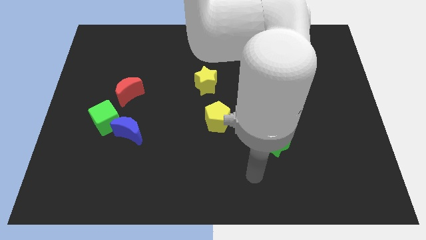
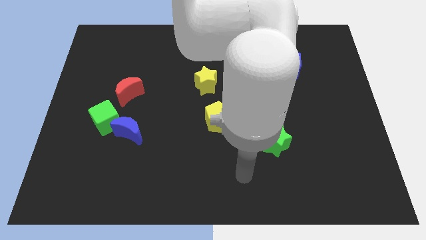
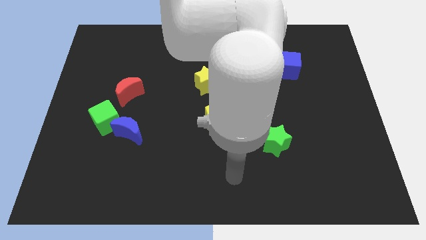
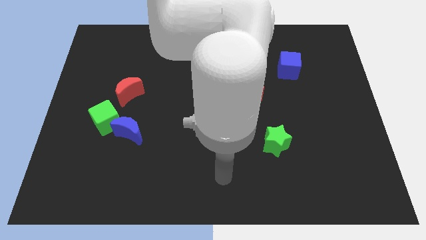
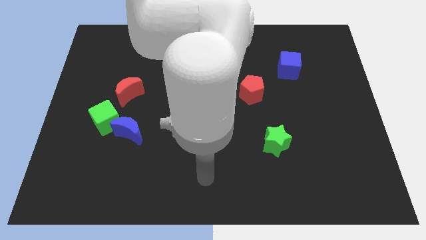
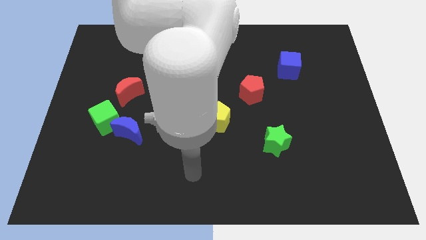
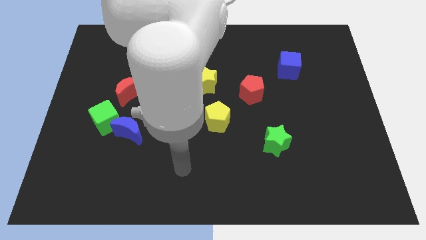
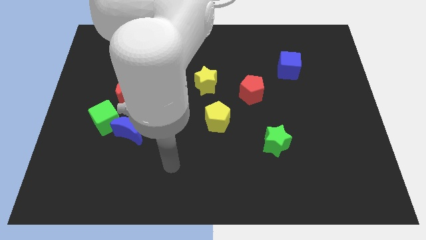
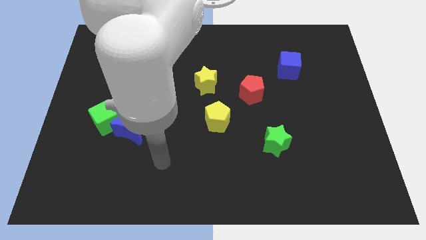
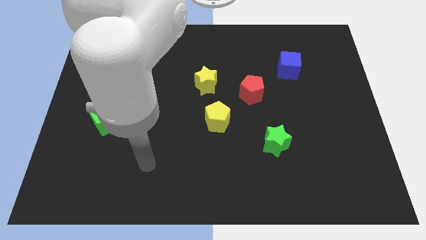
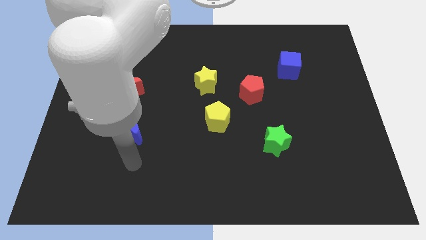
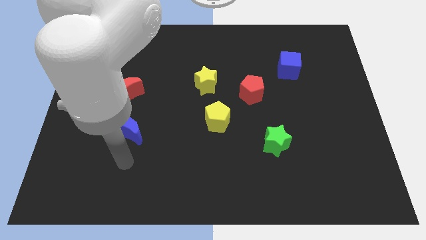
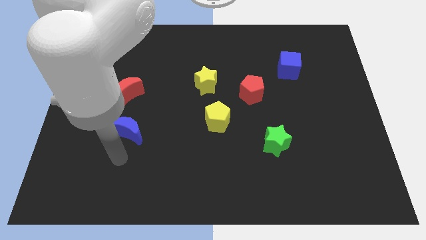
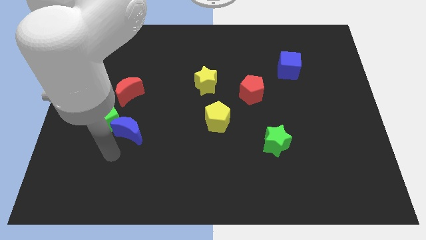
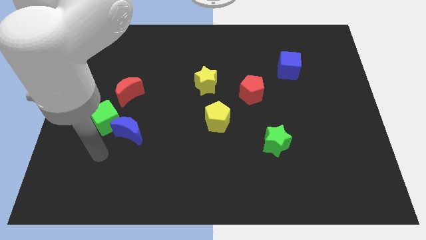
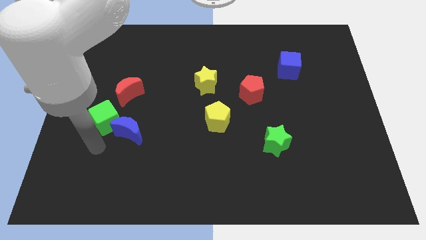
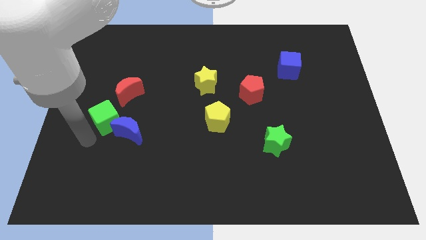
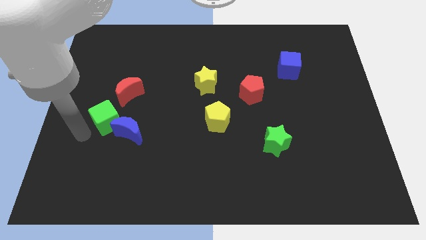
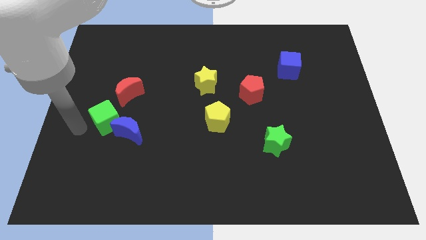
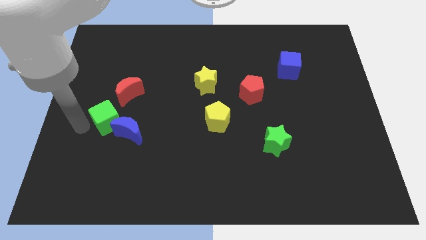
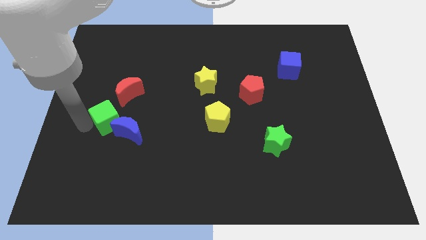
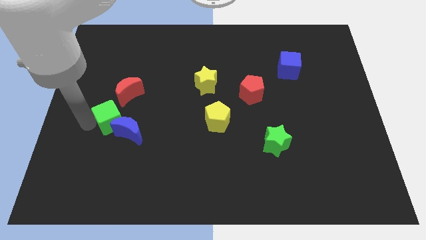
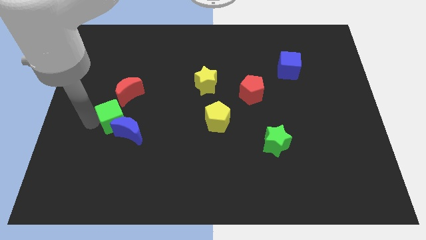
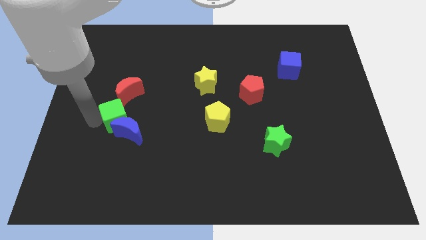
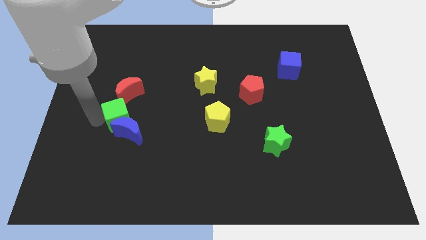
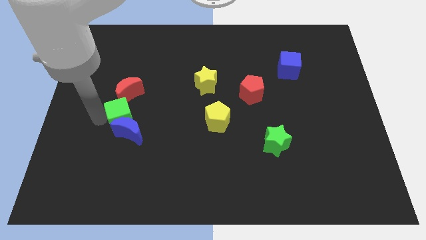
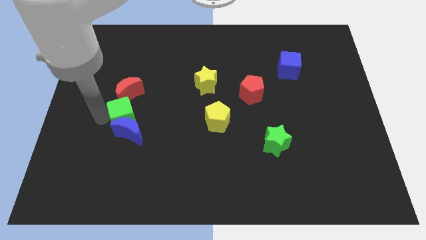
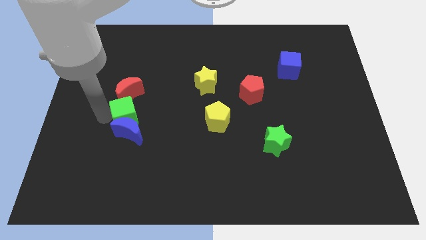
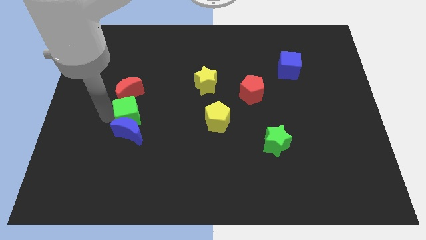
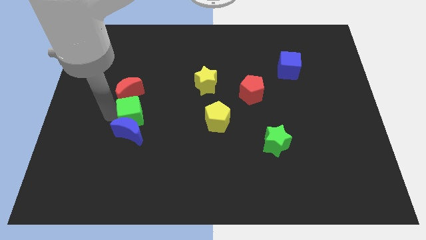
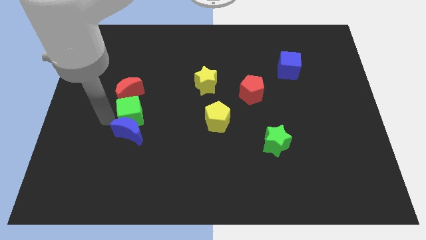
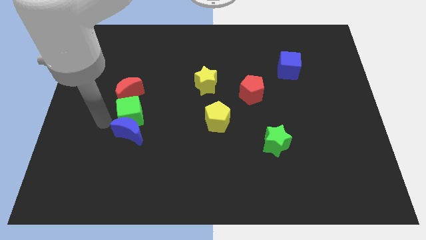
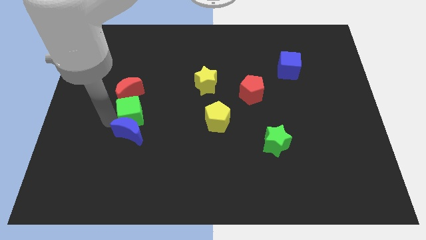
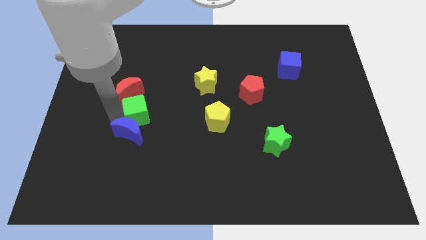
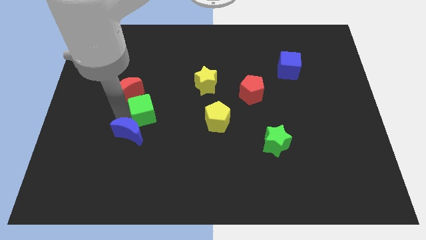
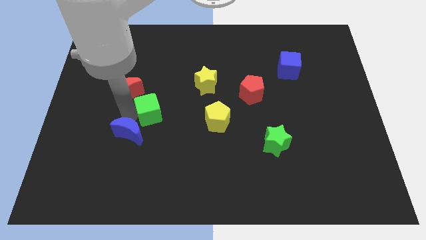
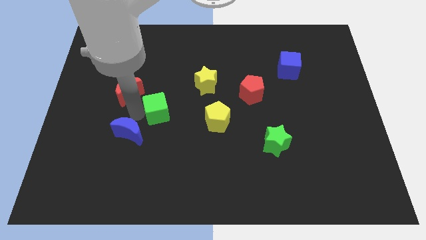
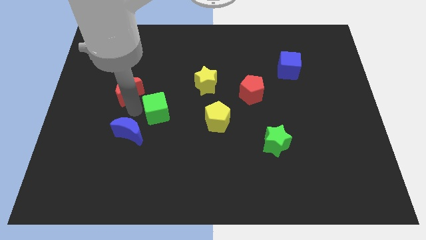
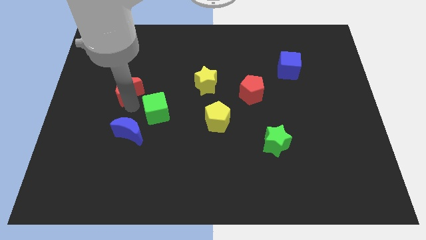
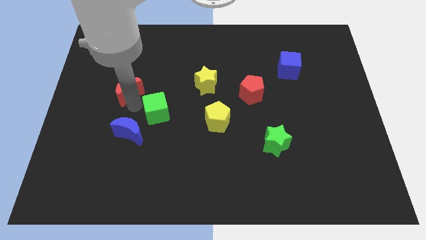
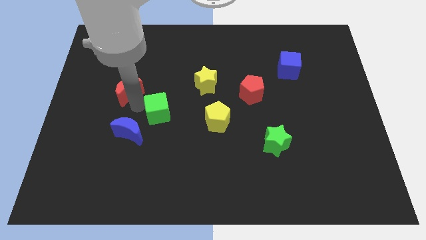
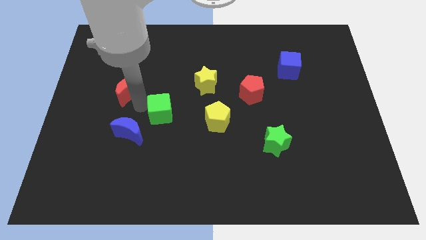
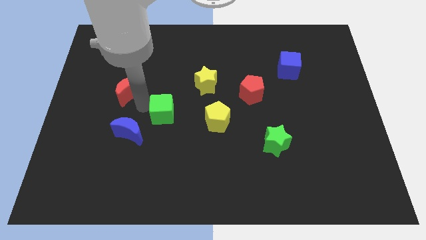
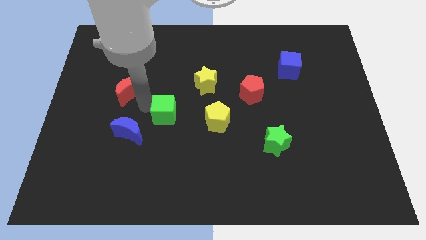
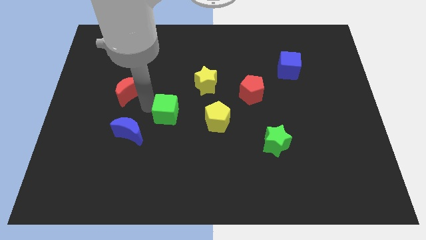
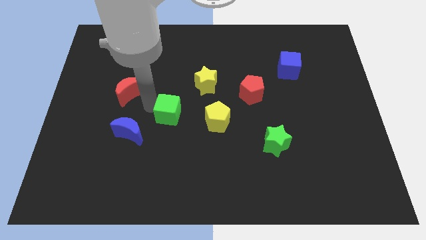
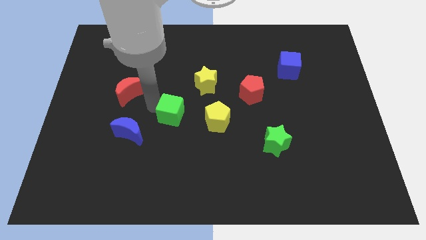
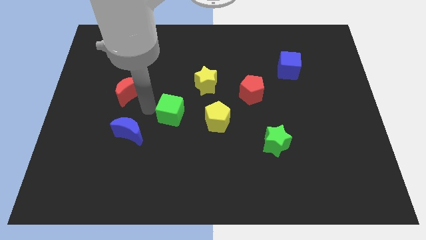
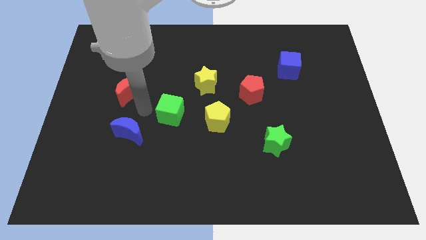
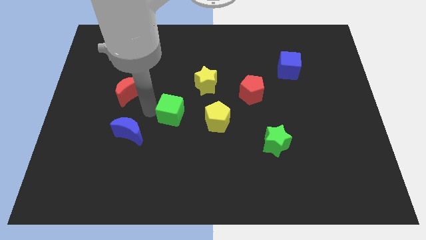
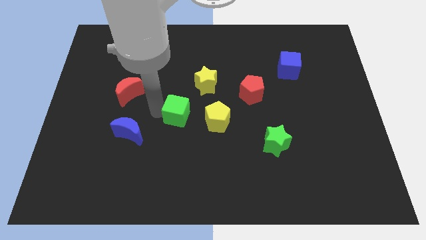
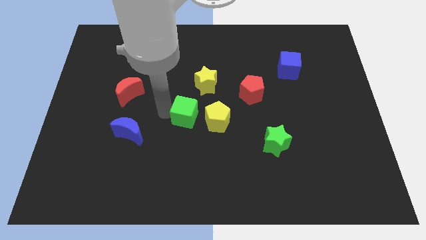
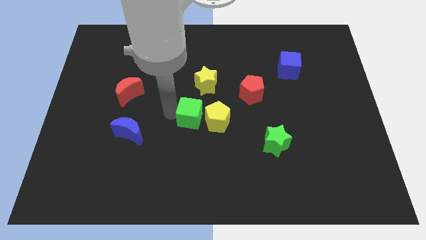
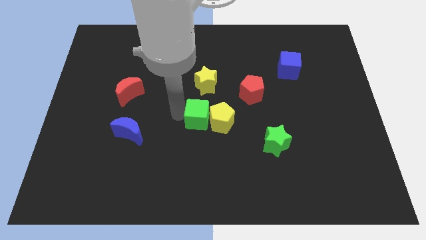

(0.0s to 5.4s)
move the green cube to the yellow pentagon

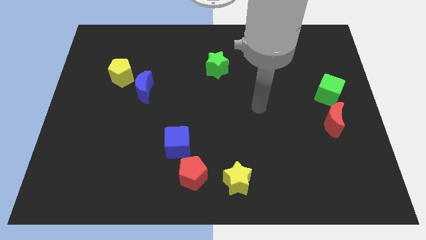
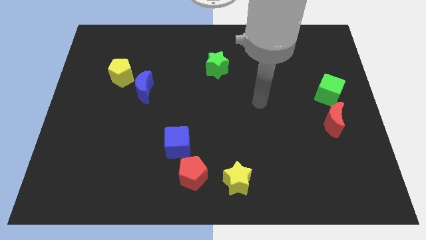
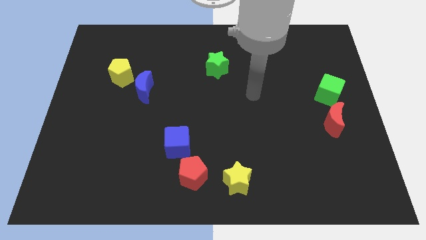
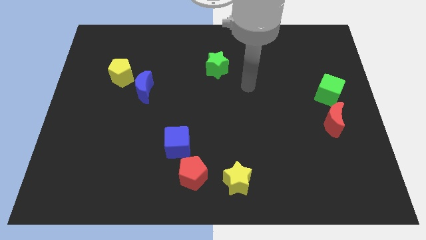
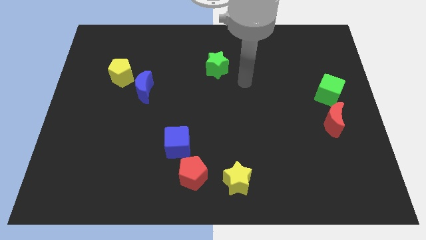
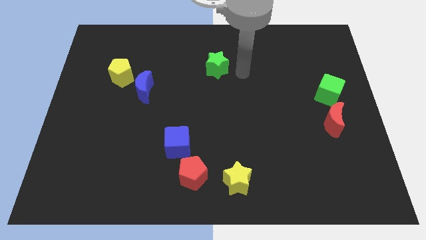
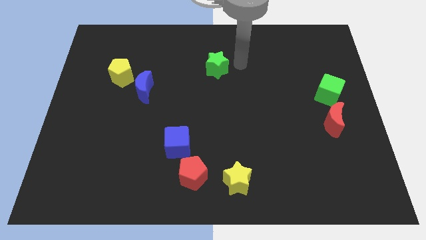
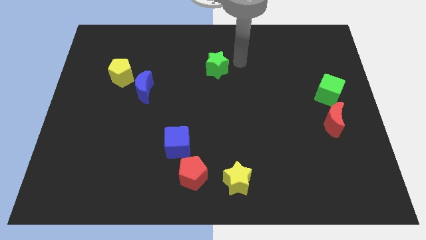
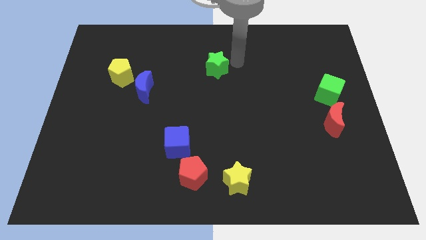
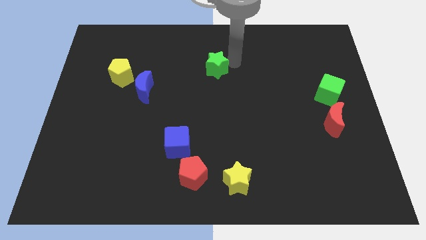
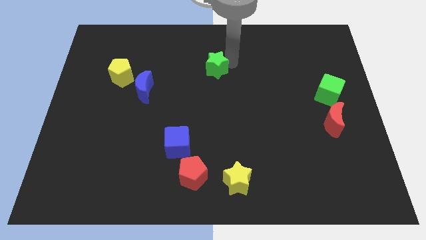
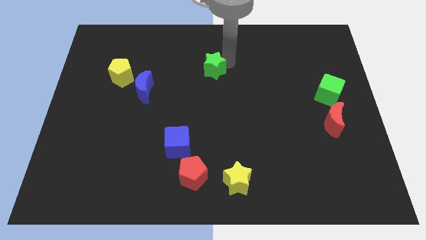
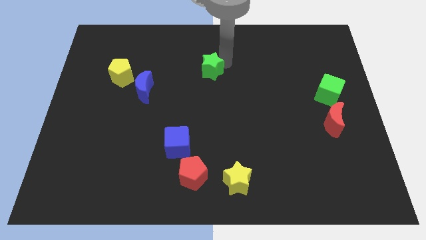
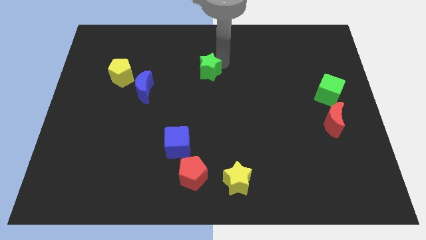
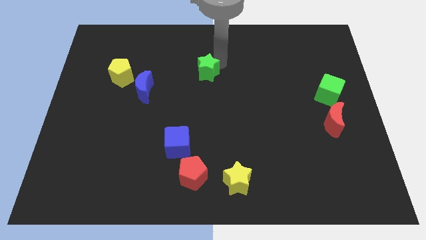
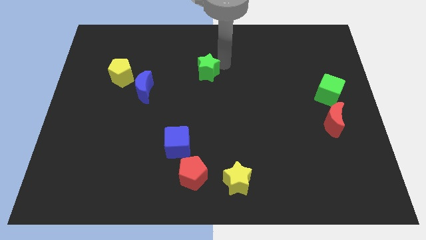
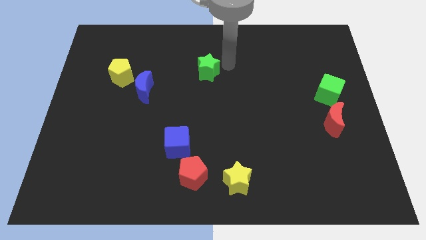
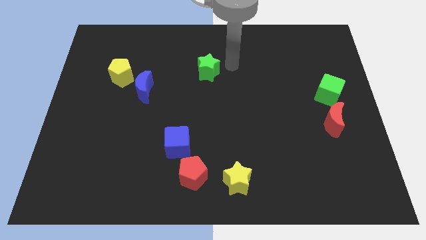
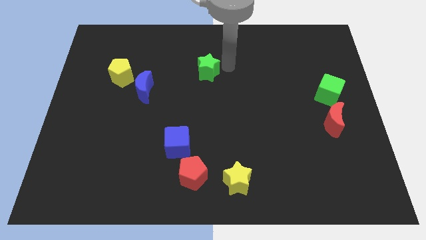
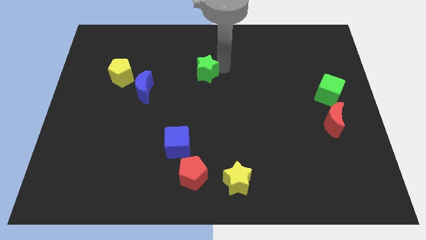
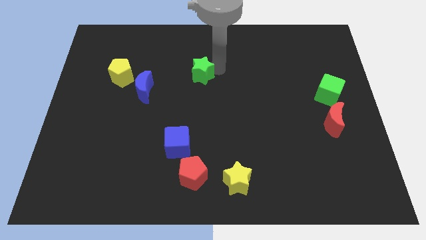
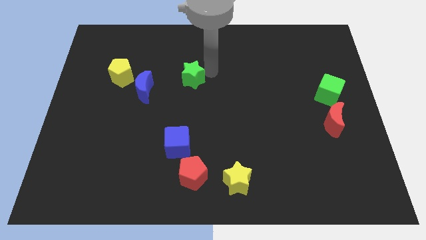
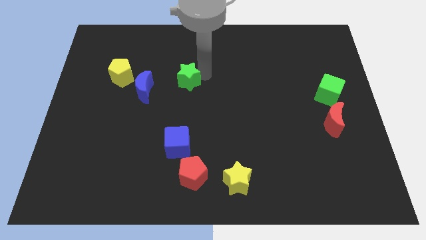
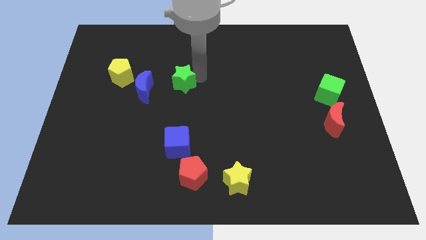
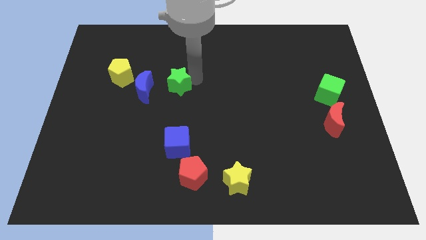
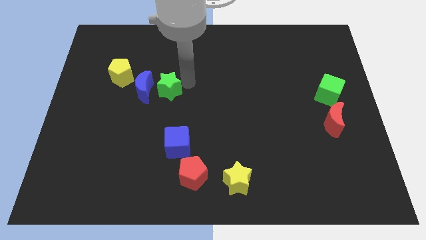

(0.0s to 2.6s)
put the green star close to the blue moon
